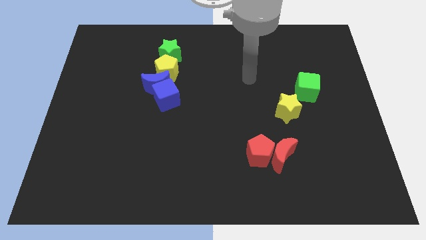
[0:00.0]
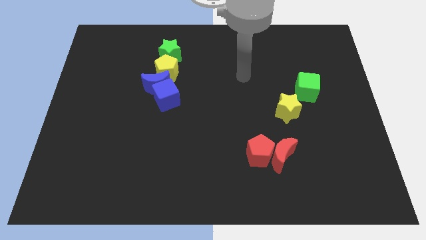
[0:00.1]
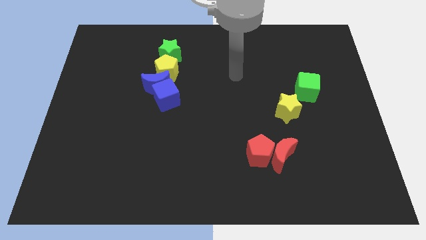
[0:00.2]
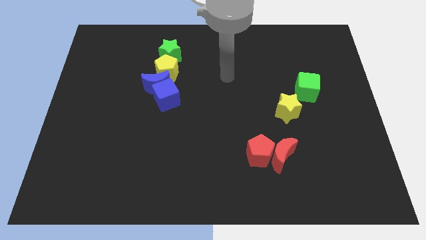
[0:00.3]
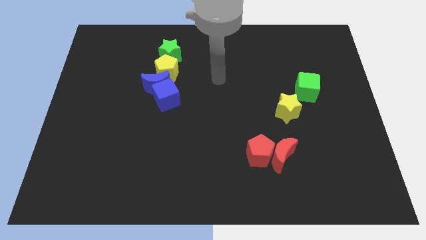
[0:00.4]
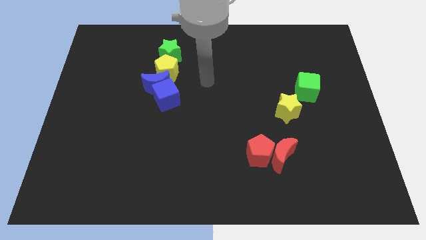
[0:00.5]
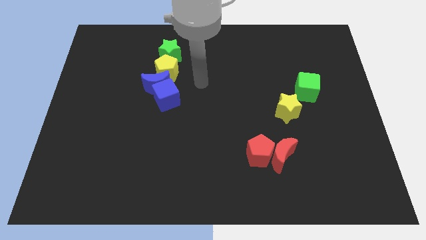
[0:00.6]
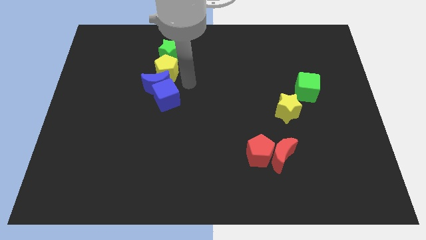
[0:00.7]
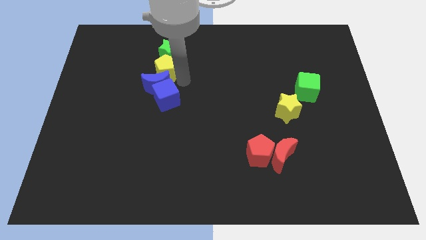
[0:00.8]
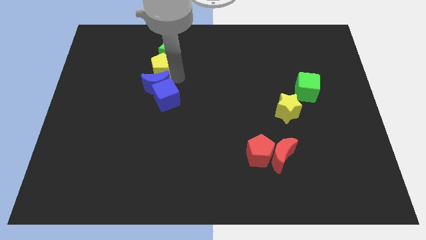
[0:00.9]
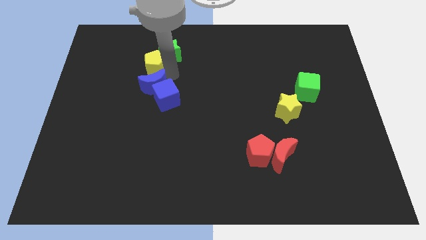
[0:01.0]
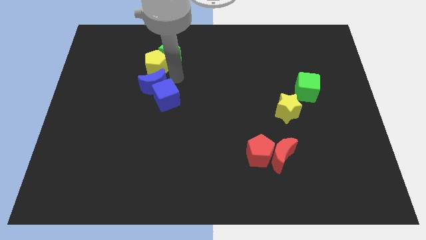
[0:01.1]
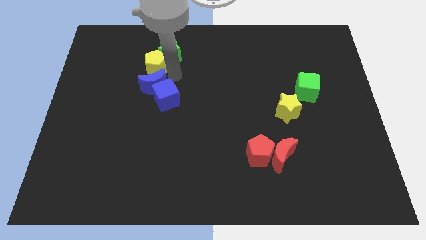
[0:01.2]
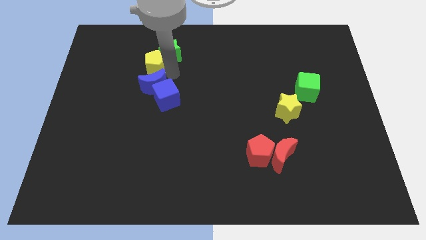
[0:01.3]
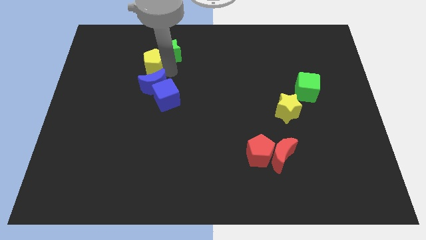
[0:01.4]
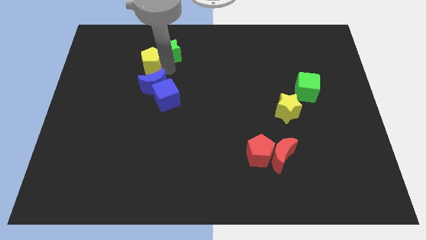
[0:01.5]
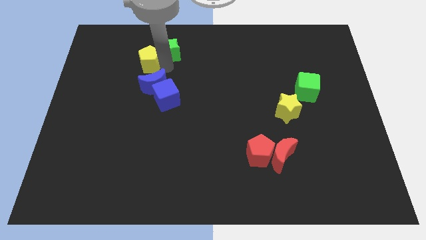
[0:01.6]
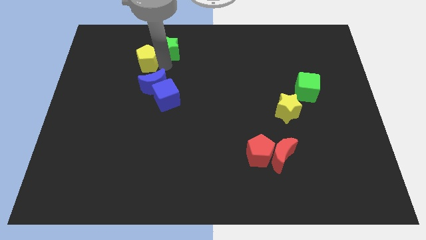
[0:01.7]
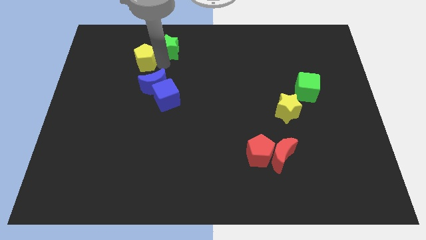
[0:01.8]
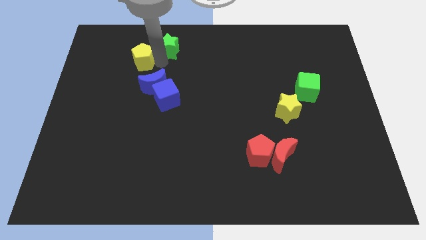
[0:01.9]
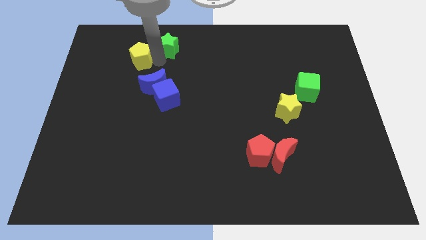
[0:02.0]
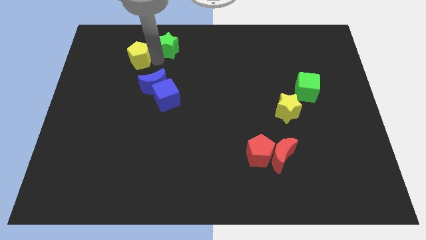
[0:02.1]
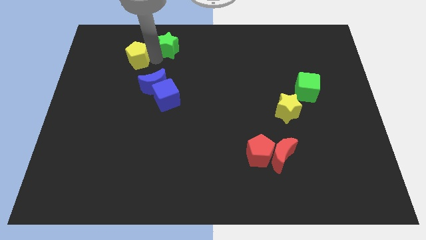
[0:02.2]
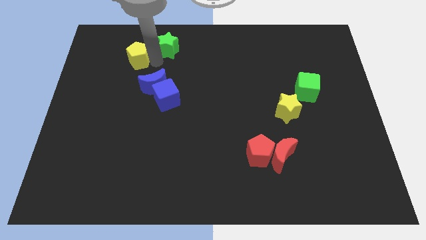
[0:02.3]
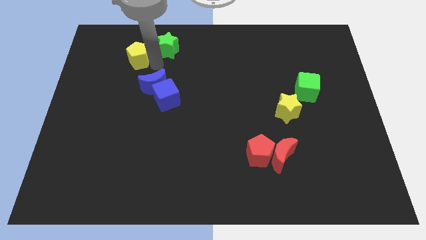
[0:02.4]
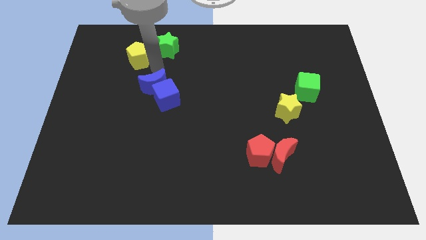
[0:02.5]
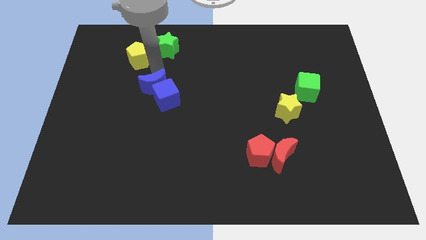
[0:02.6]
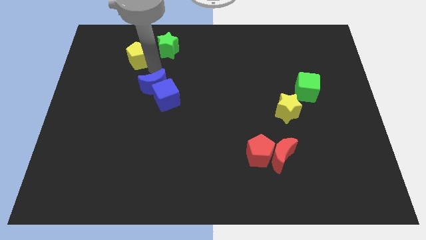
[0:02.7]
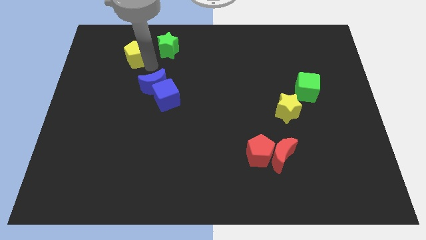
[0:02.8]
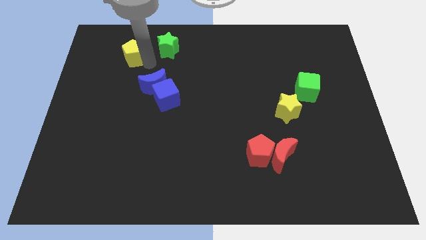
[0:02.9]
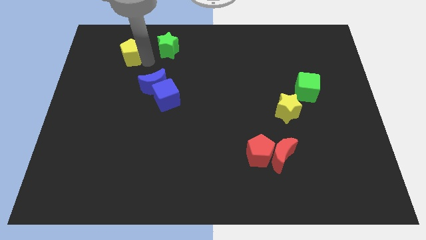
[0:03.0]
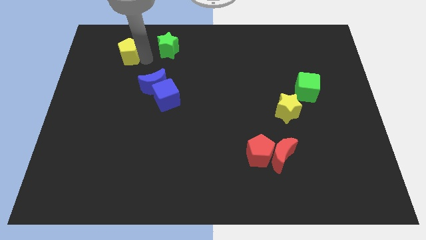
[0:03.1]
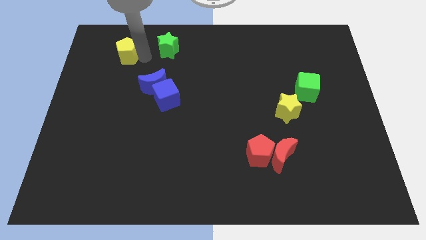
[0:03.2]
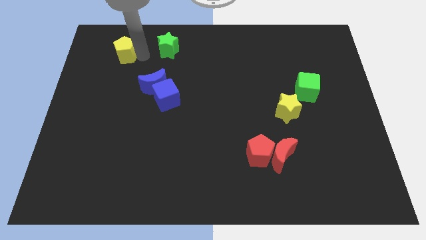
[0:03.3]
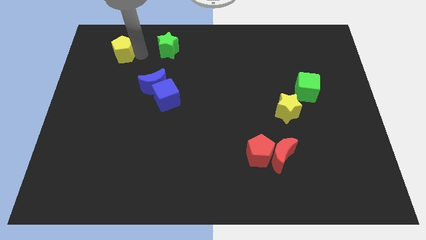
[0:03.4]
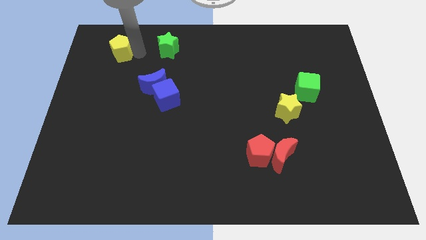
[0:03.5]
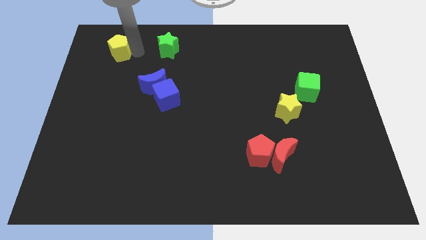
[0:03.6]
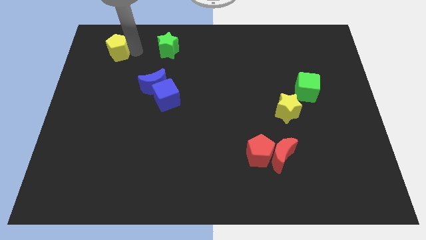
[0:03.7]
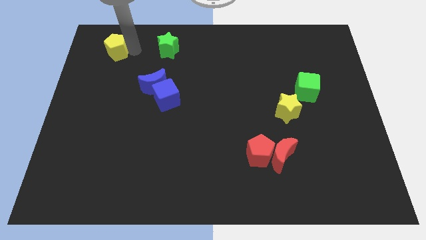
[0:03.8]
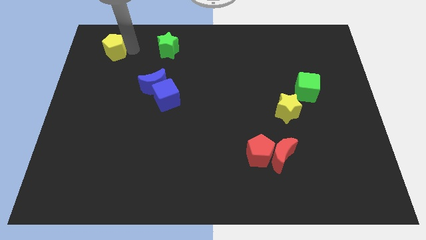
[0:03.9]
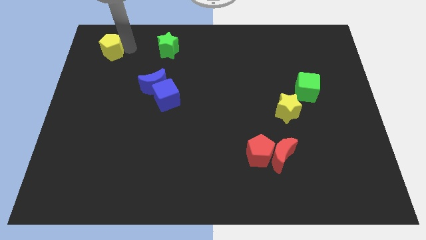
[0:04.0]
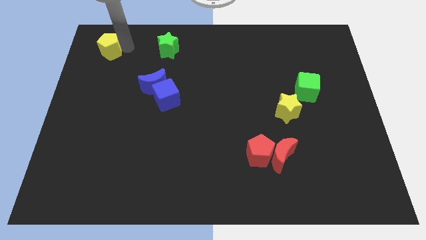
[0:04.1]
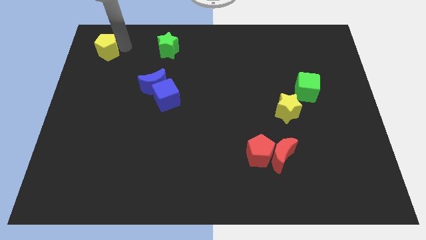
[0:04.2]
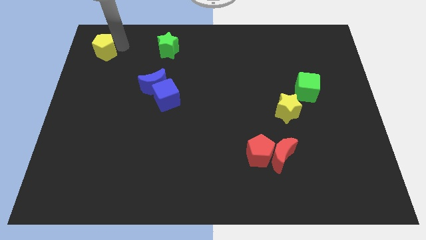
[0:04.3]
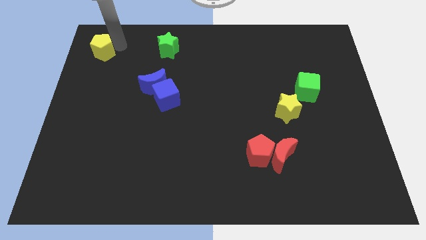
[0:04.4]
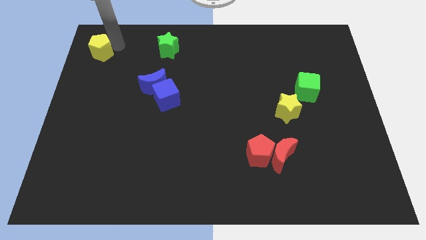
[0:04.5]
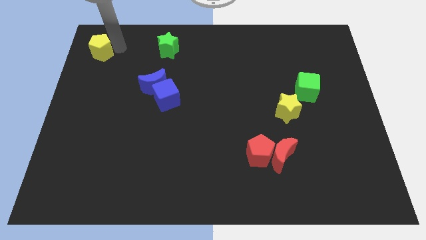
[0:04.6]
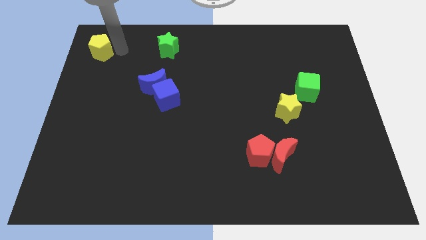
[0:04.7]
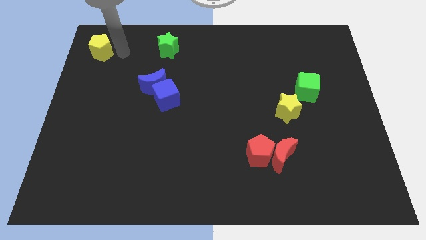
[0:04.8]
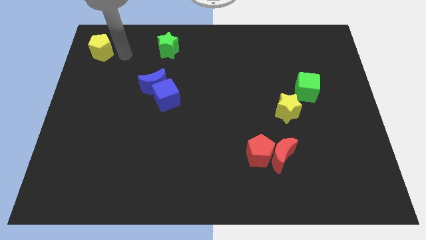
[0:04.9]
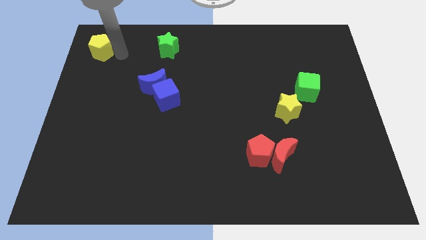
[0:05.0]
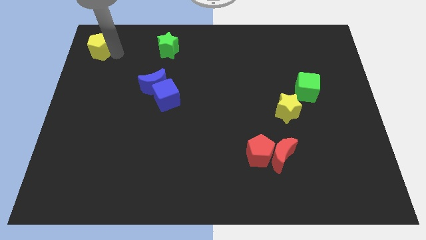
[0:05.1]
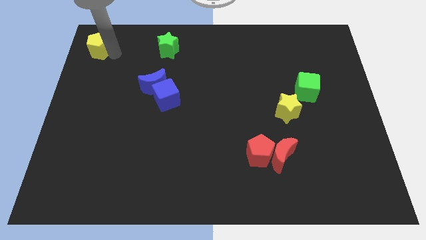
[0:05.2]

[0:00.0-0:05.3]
move the yellow pentagon to the upper left corner

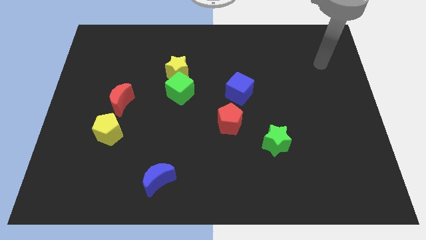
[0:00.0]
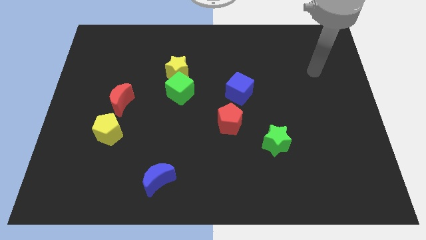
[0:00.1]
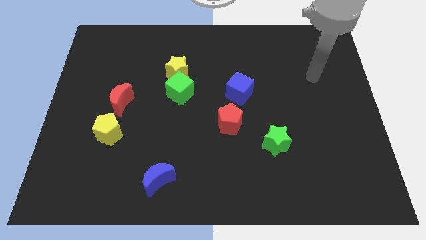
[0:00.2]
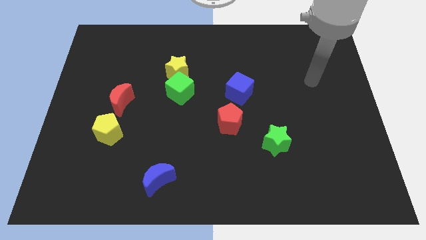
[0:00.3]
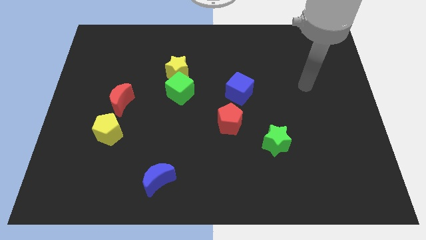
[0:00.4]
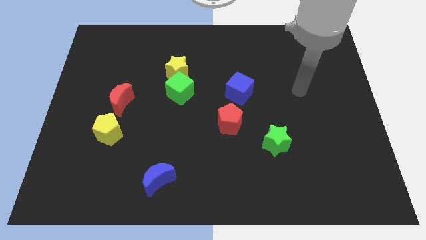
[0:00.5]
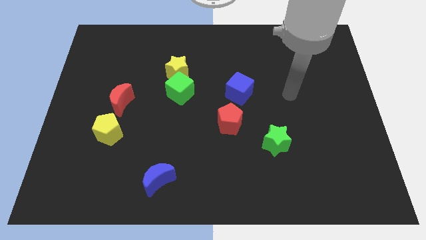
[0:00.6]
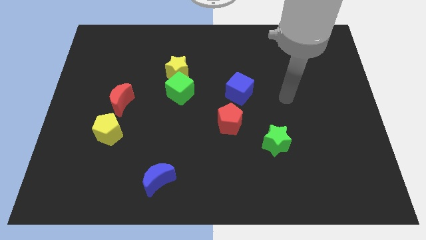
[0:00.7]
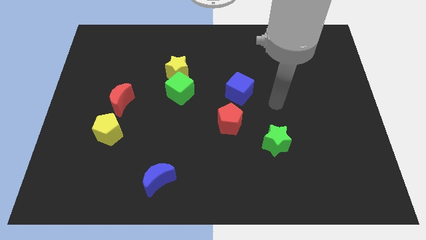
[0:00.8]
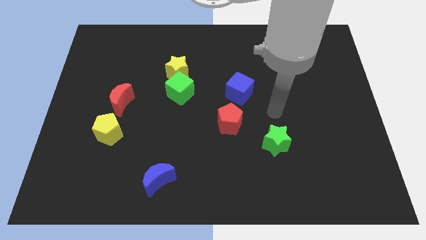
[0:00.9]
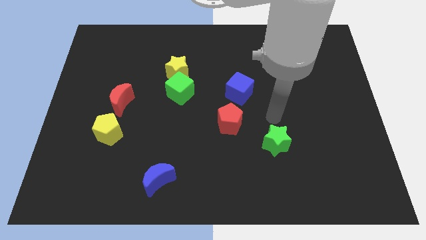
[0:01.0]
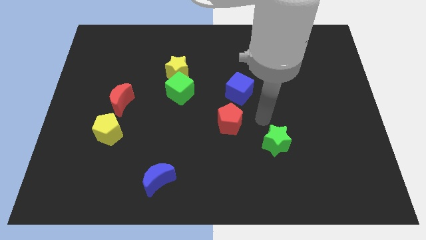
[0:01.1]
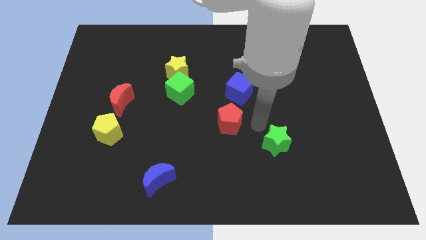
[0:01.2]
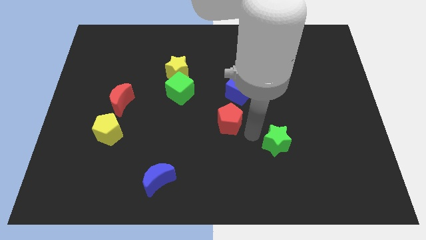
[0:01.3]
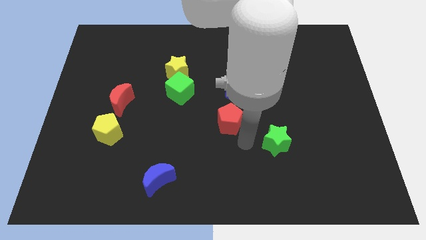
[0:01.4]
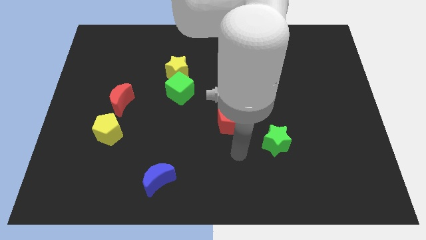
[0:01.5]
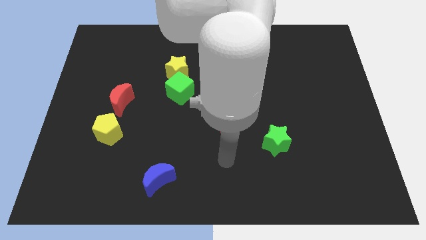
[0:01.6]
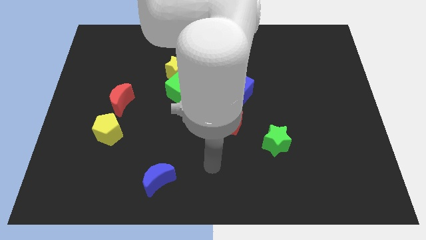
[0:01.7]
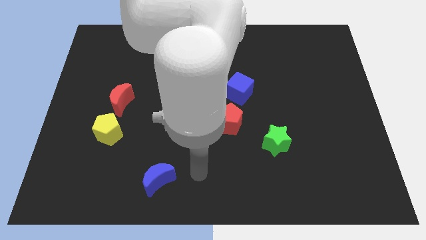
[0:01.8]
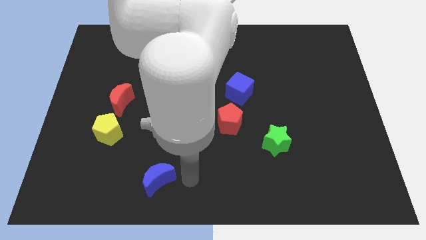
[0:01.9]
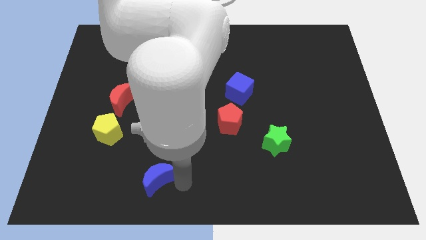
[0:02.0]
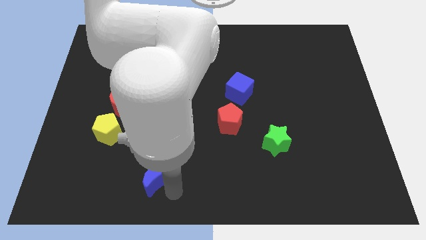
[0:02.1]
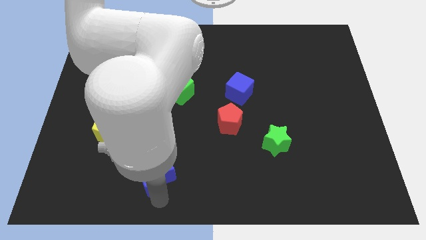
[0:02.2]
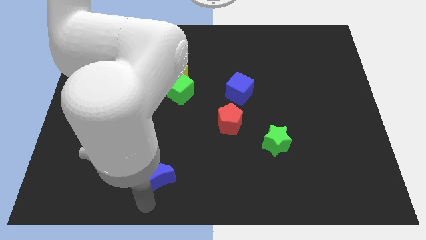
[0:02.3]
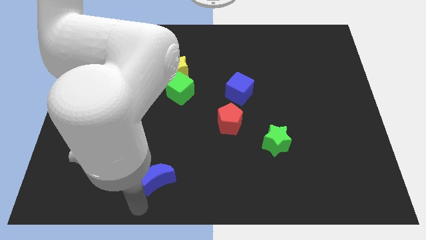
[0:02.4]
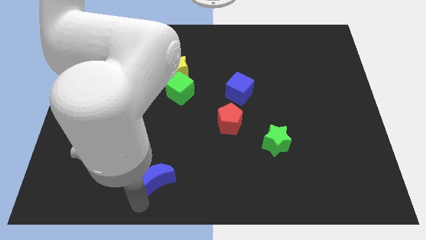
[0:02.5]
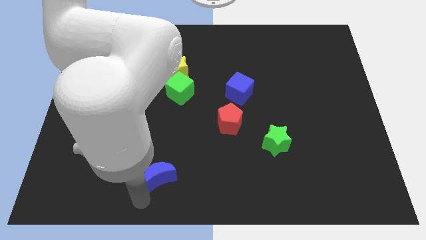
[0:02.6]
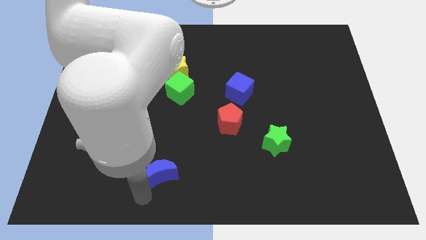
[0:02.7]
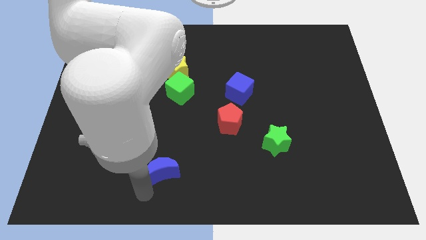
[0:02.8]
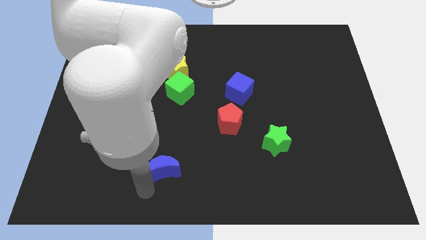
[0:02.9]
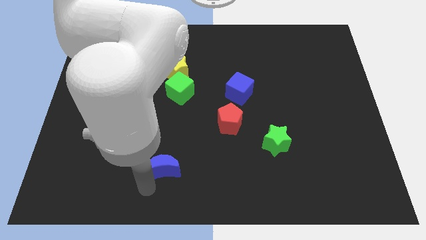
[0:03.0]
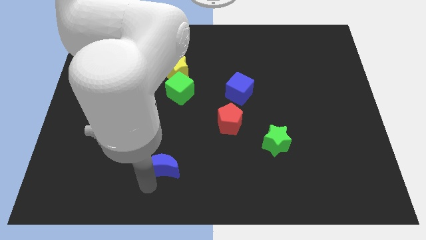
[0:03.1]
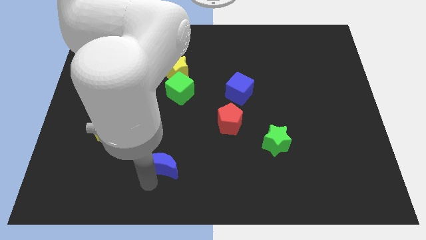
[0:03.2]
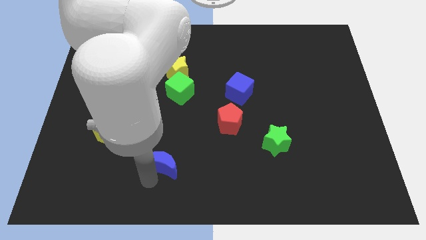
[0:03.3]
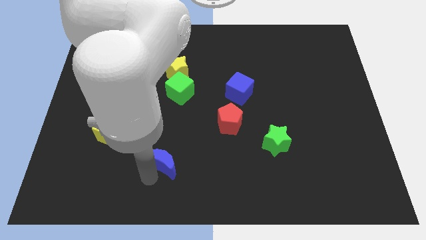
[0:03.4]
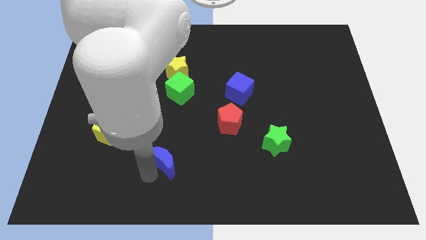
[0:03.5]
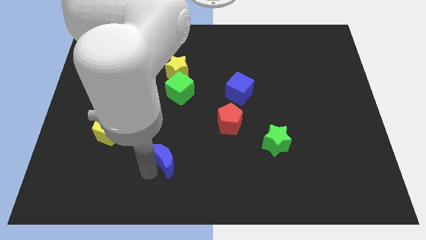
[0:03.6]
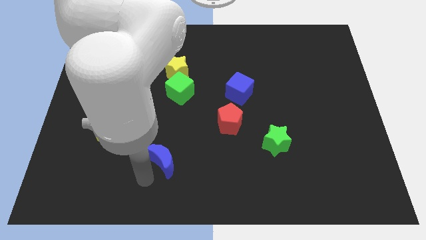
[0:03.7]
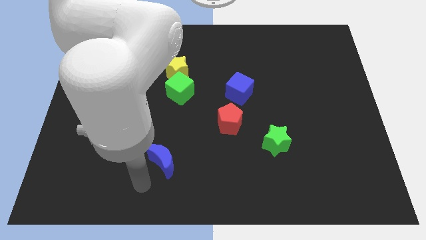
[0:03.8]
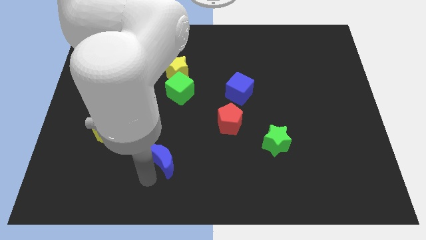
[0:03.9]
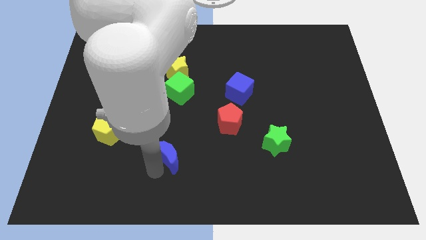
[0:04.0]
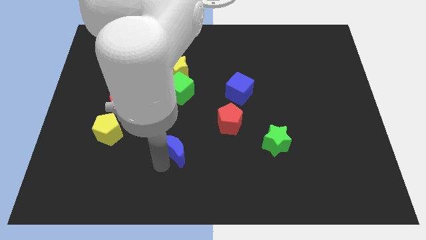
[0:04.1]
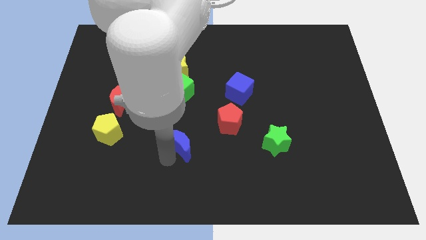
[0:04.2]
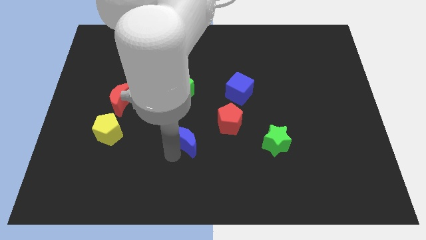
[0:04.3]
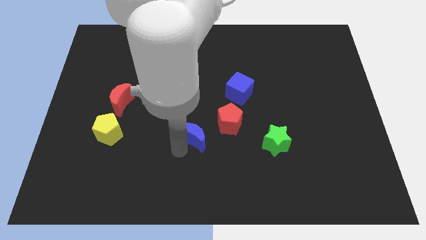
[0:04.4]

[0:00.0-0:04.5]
push the blue moon to the middle
